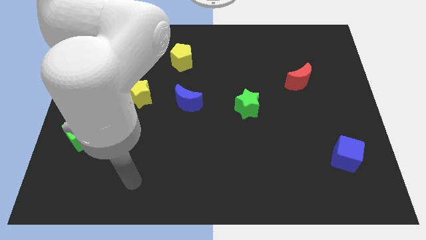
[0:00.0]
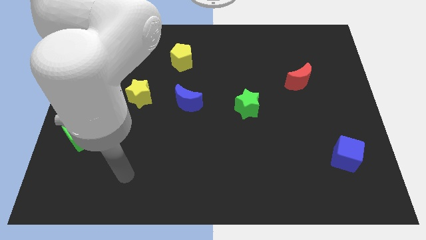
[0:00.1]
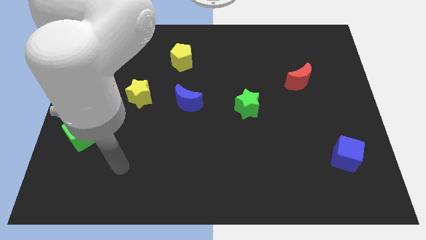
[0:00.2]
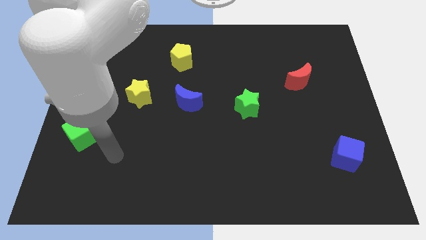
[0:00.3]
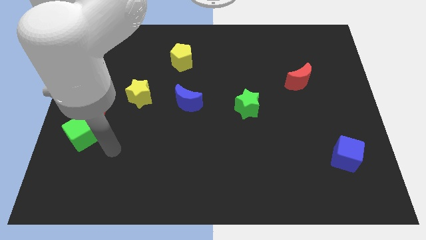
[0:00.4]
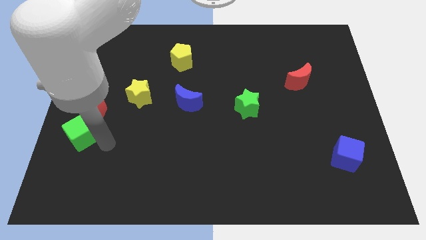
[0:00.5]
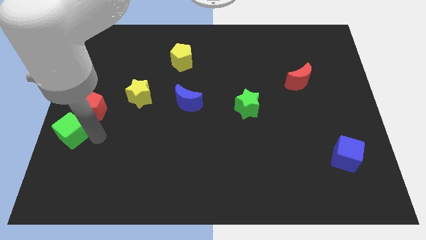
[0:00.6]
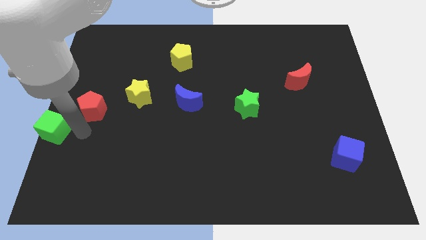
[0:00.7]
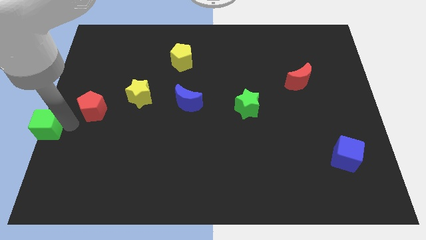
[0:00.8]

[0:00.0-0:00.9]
move the red pentagon away from the green cube

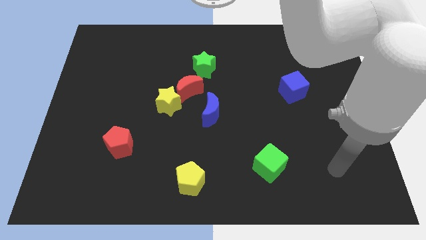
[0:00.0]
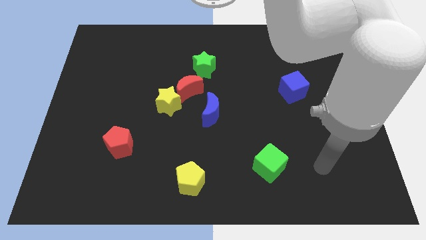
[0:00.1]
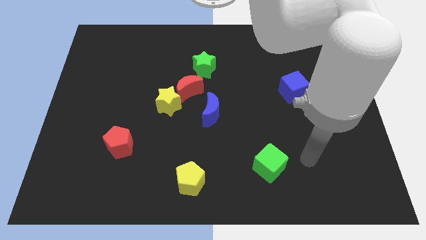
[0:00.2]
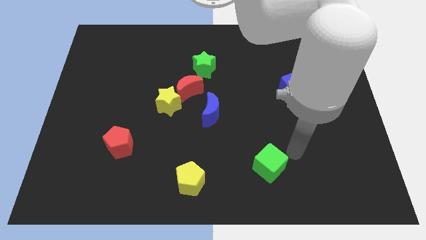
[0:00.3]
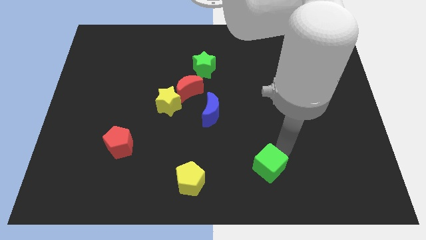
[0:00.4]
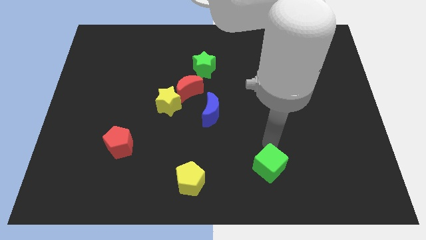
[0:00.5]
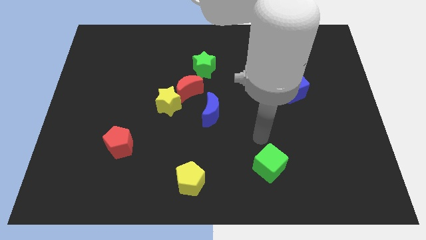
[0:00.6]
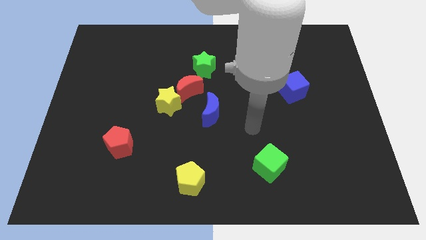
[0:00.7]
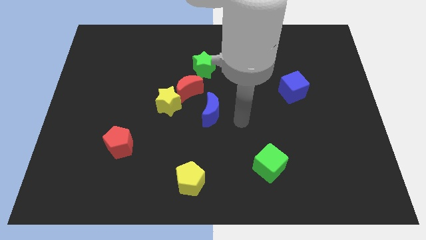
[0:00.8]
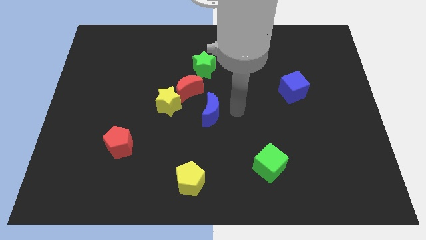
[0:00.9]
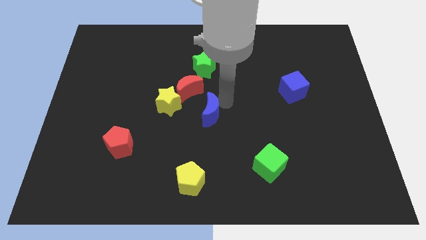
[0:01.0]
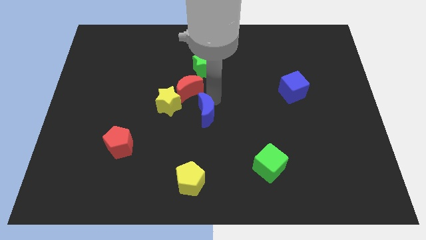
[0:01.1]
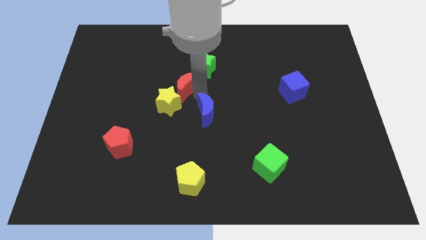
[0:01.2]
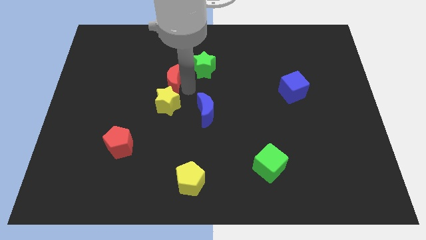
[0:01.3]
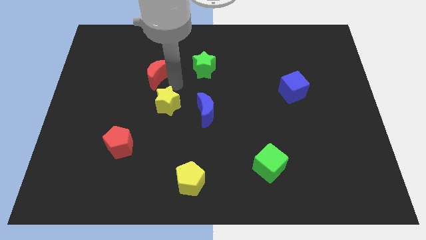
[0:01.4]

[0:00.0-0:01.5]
move the yellow star away from the red moon

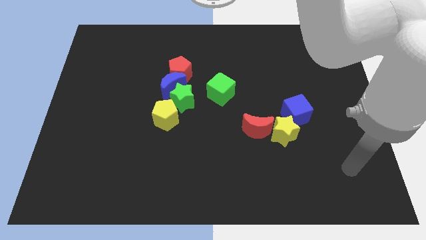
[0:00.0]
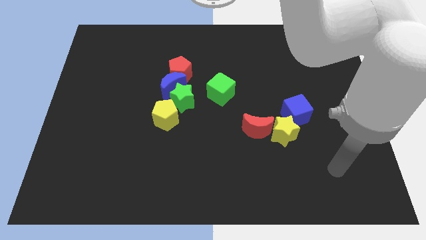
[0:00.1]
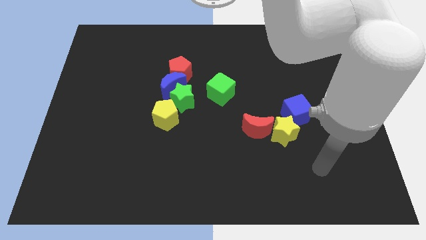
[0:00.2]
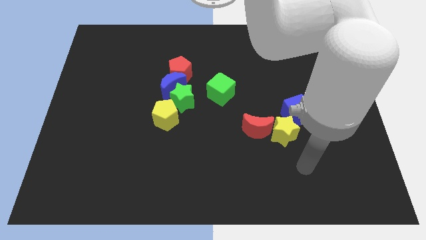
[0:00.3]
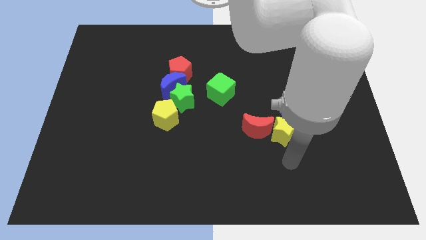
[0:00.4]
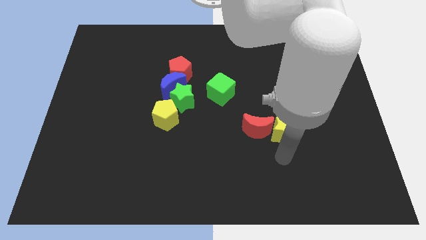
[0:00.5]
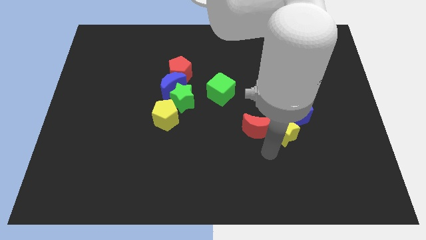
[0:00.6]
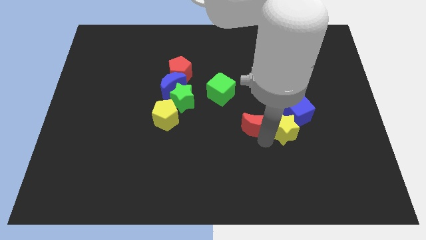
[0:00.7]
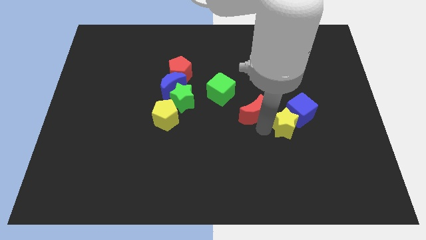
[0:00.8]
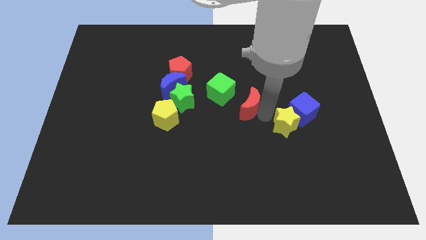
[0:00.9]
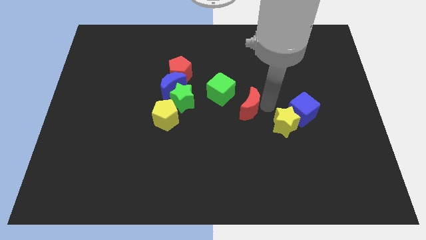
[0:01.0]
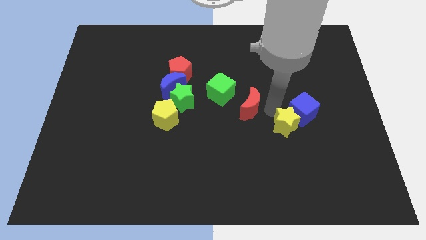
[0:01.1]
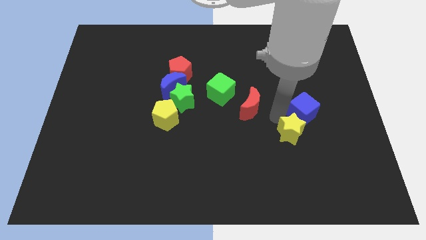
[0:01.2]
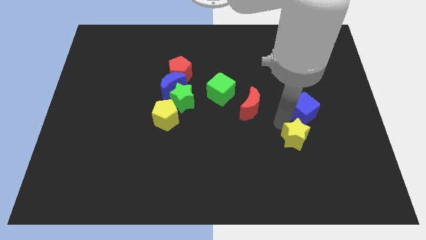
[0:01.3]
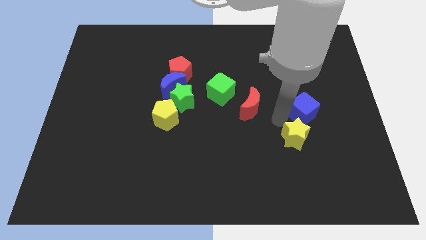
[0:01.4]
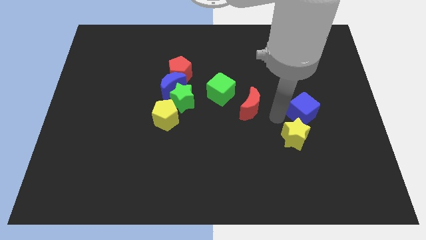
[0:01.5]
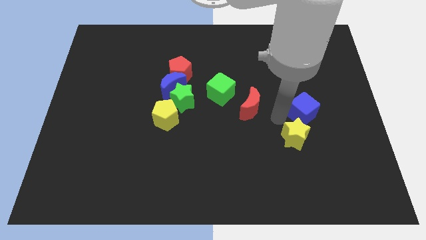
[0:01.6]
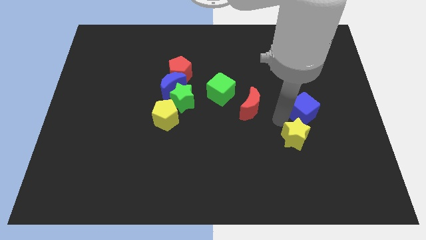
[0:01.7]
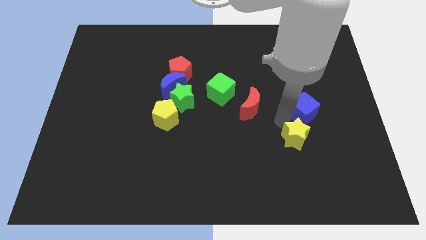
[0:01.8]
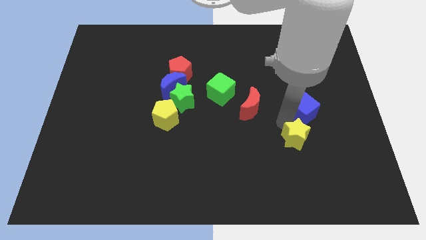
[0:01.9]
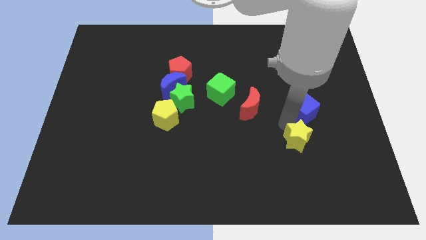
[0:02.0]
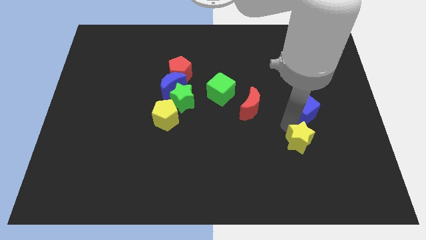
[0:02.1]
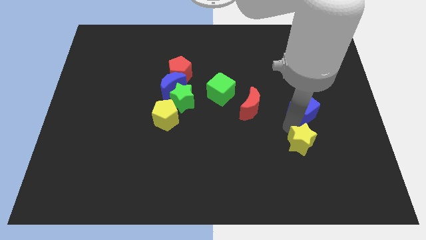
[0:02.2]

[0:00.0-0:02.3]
separate the yellow star from the red moon and blue cube

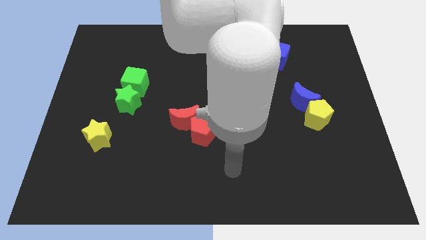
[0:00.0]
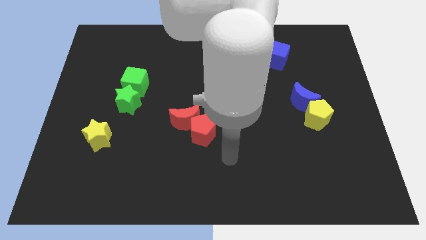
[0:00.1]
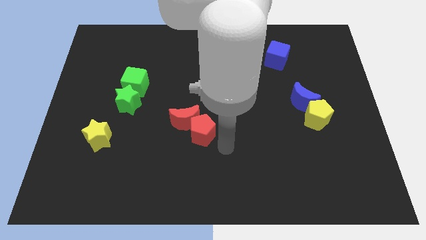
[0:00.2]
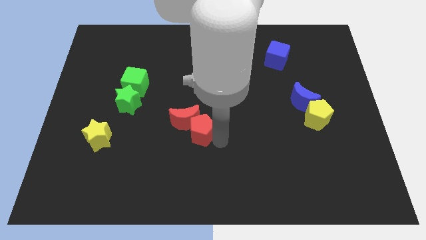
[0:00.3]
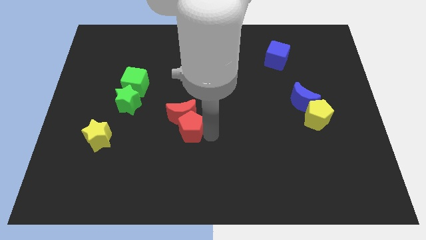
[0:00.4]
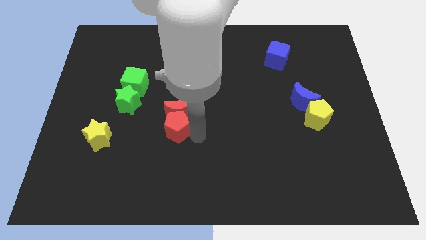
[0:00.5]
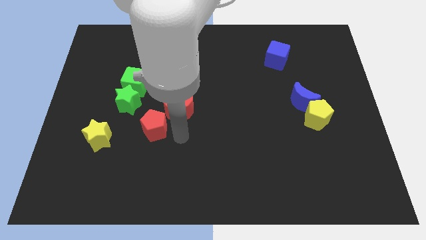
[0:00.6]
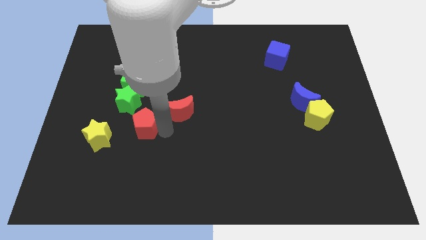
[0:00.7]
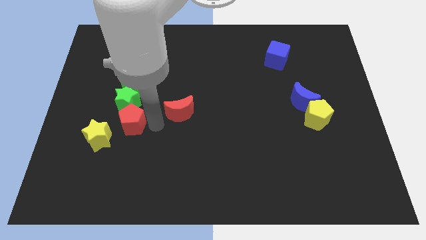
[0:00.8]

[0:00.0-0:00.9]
move the red moon away from the red pentagon

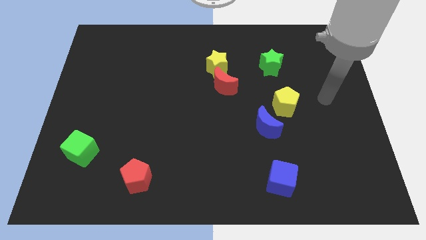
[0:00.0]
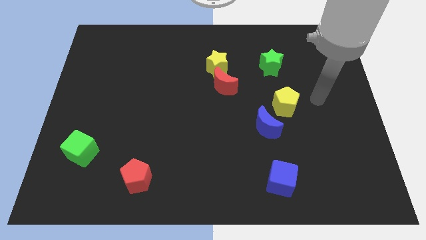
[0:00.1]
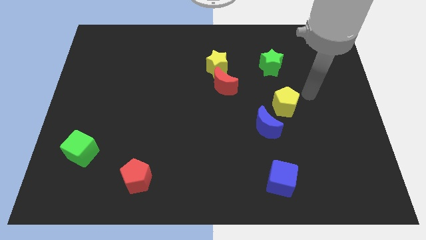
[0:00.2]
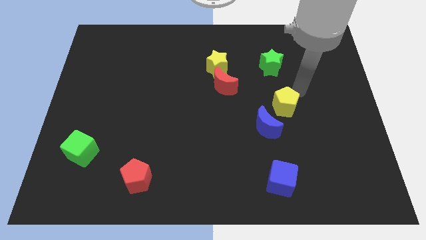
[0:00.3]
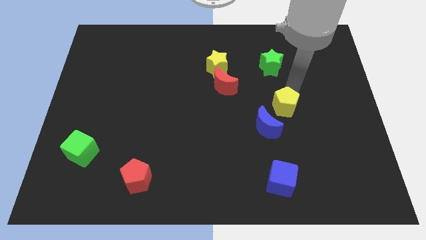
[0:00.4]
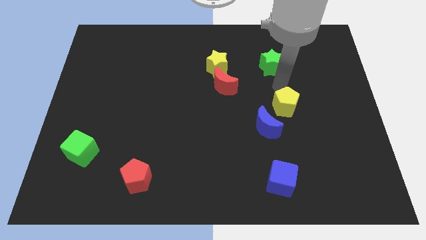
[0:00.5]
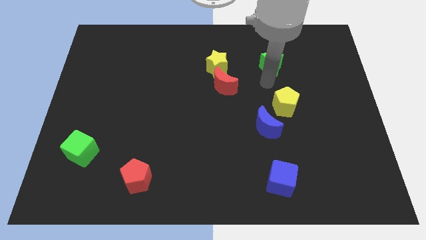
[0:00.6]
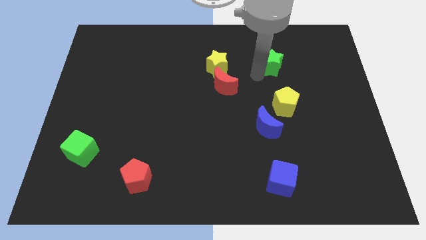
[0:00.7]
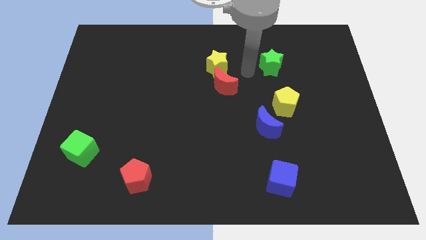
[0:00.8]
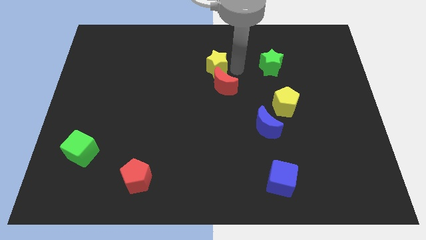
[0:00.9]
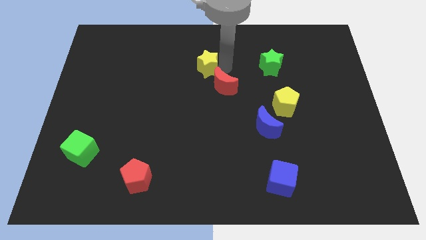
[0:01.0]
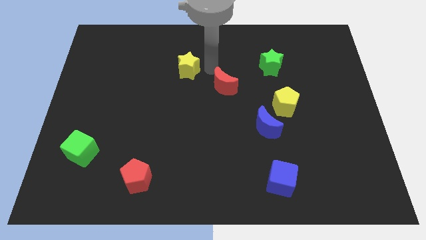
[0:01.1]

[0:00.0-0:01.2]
move the red moon away from the yellow star

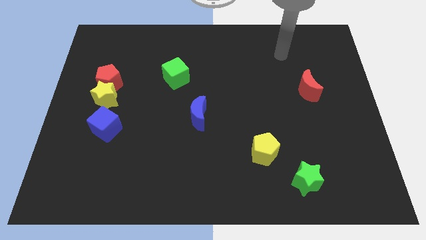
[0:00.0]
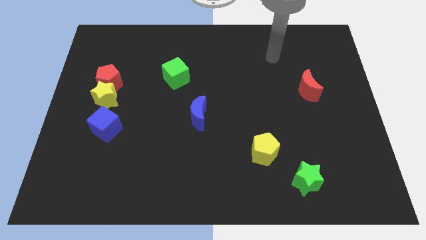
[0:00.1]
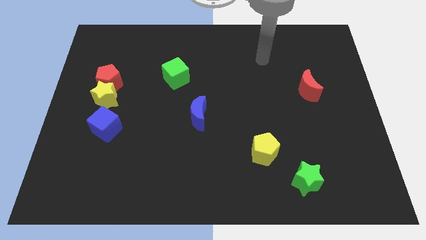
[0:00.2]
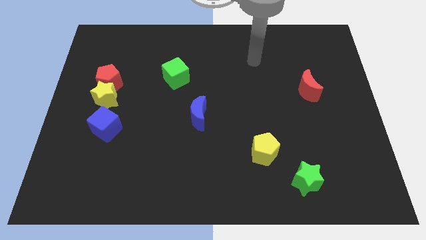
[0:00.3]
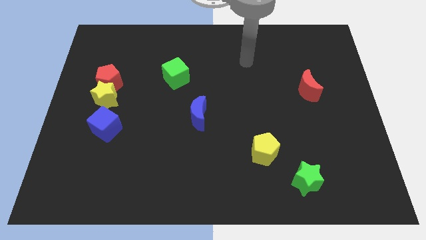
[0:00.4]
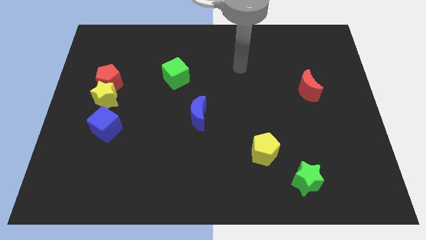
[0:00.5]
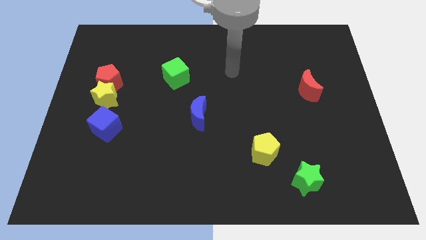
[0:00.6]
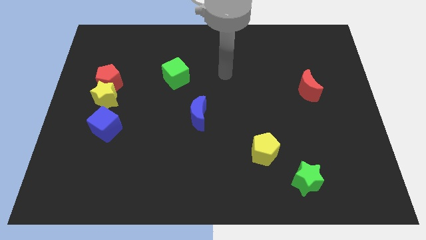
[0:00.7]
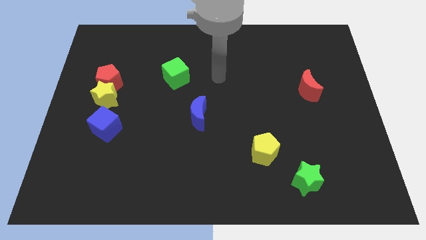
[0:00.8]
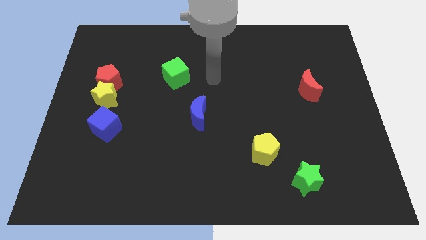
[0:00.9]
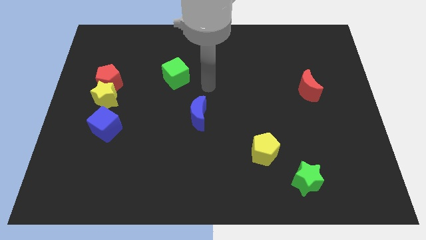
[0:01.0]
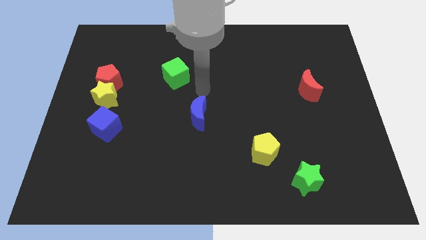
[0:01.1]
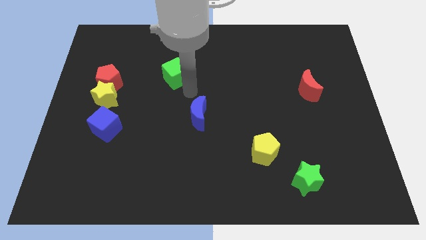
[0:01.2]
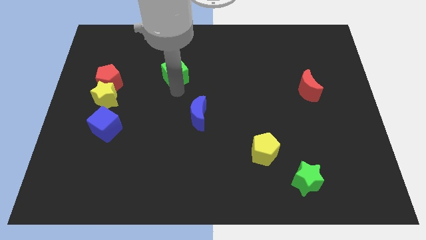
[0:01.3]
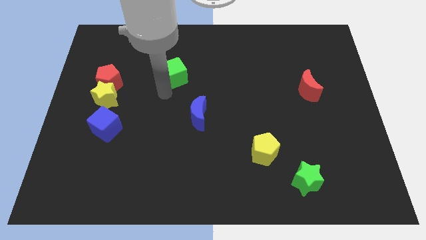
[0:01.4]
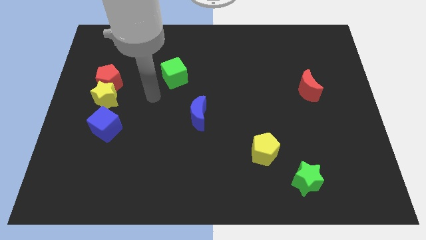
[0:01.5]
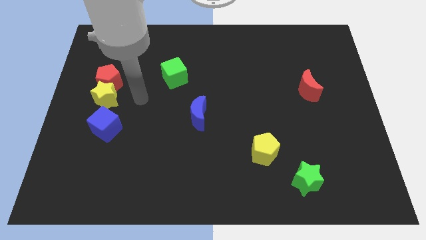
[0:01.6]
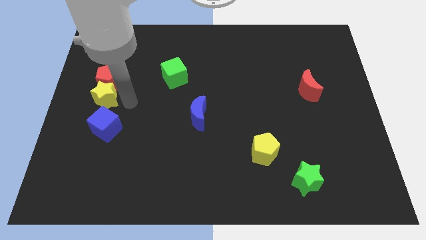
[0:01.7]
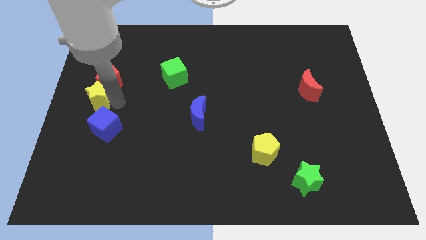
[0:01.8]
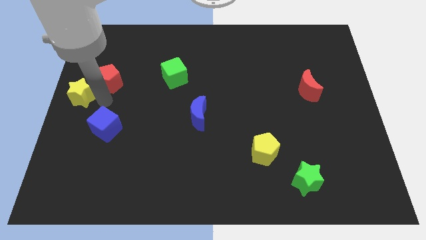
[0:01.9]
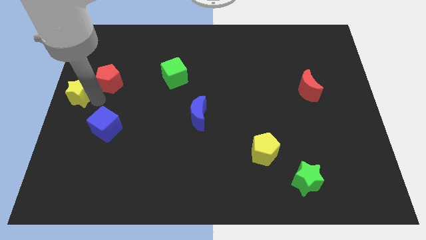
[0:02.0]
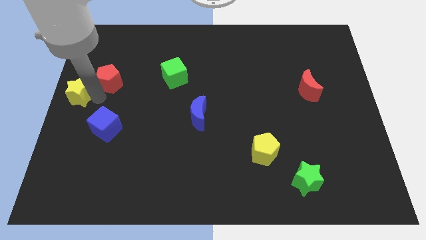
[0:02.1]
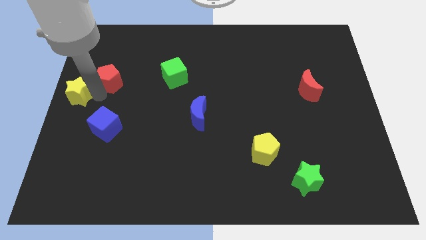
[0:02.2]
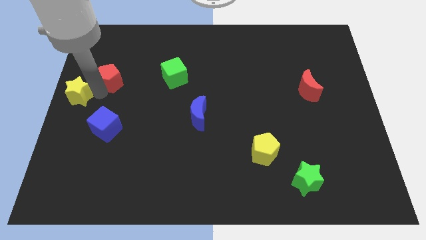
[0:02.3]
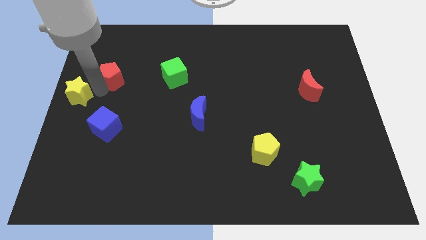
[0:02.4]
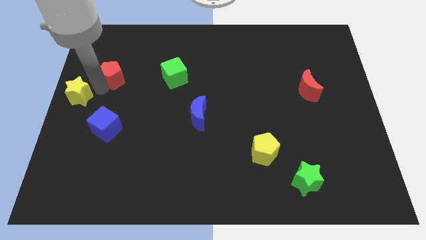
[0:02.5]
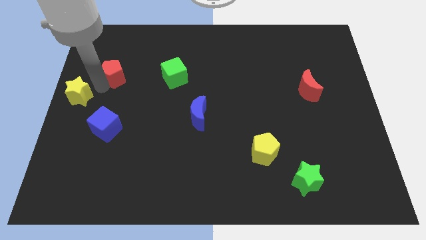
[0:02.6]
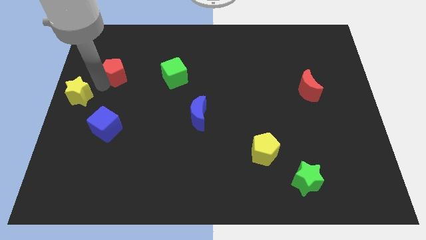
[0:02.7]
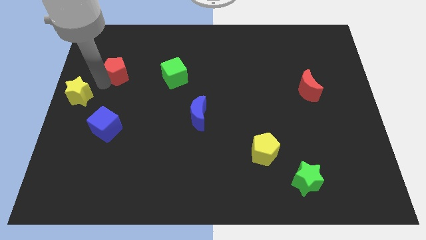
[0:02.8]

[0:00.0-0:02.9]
separate the red pentagon from the yellow star
